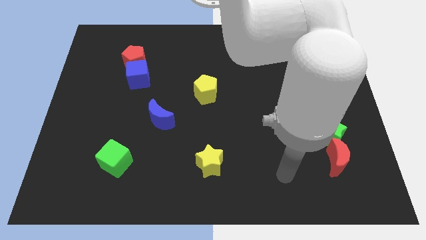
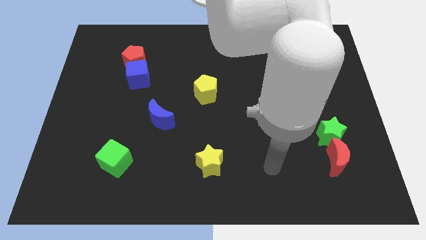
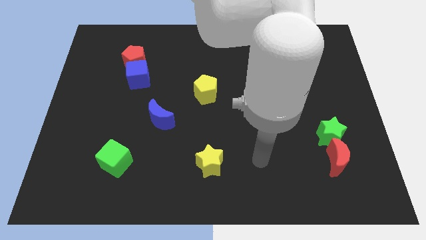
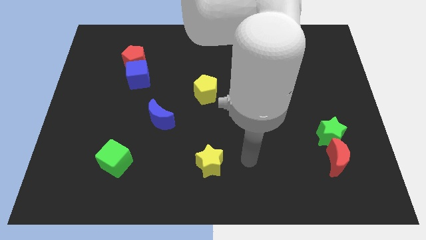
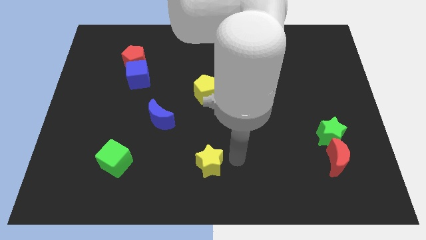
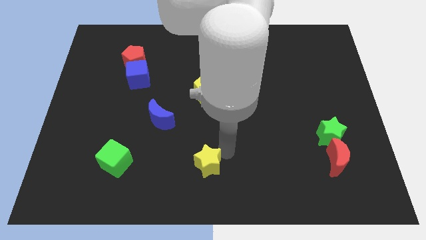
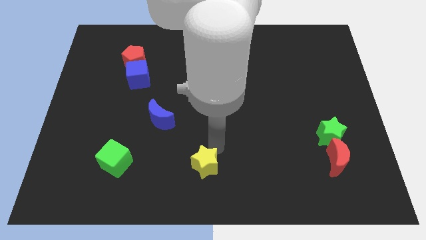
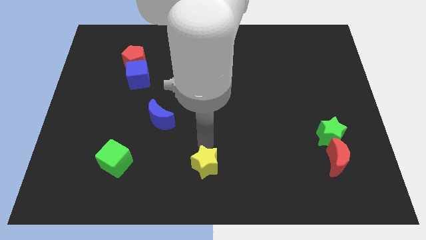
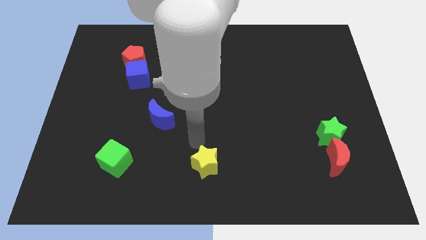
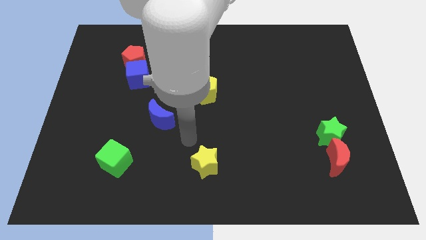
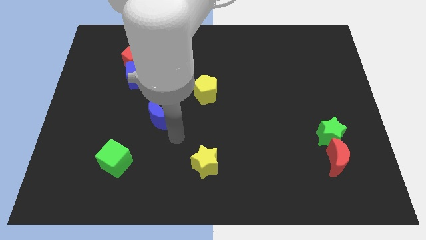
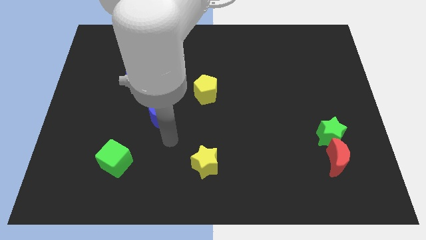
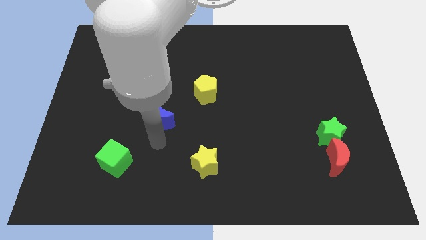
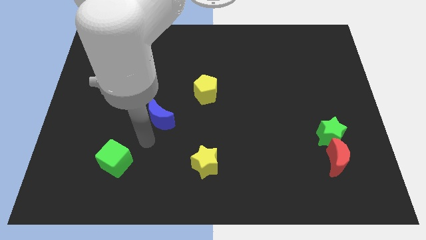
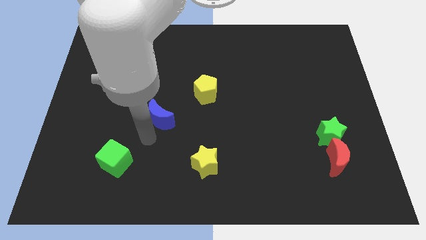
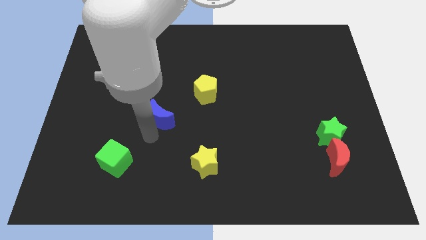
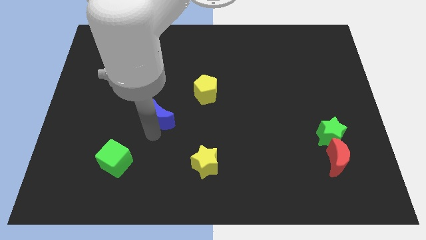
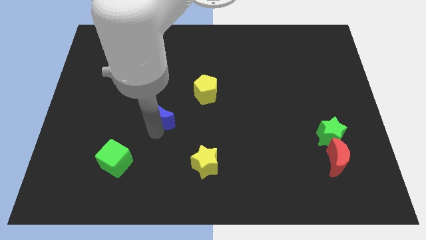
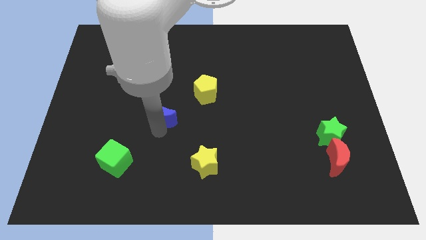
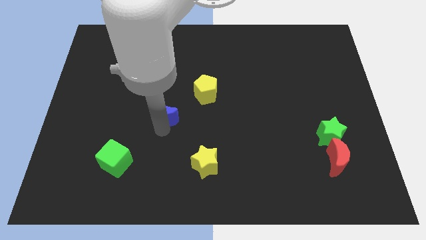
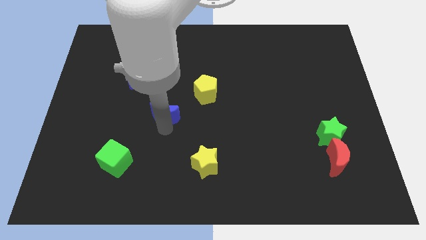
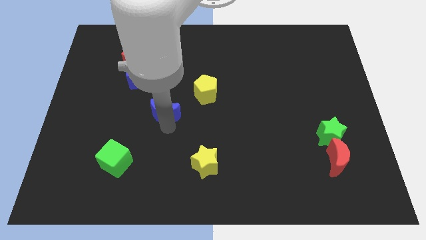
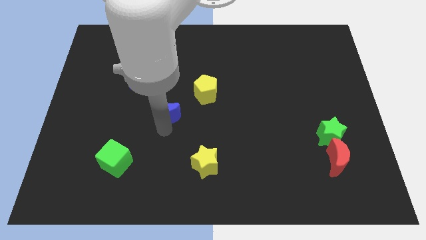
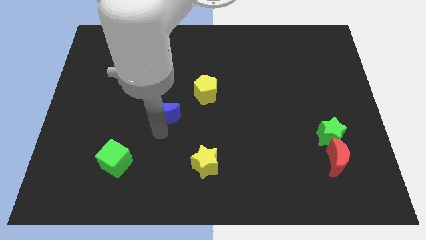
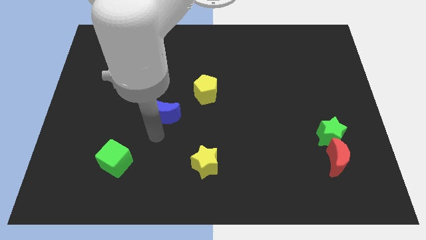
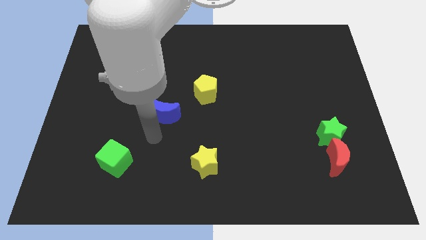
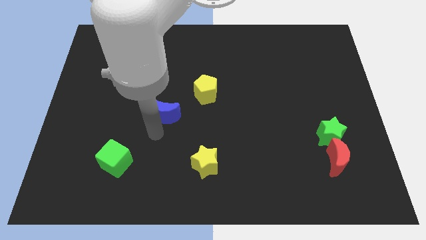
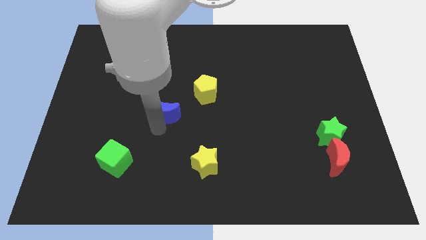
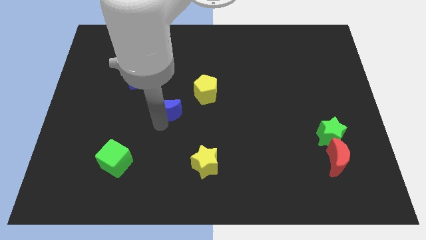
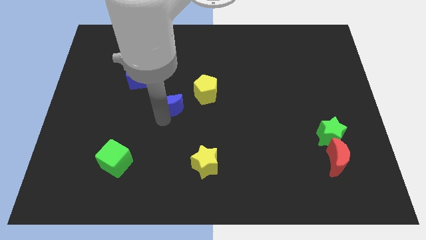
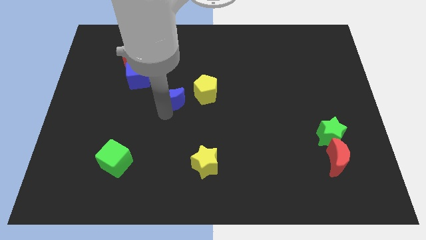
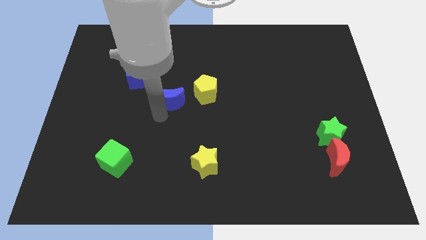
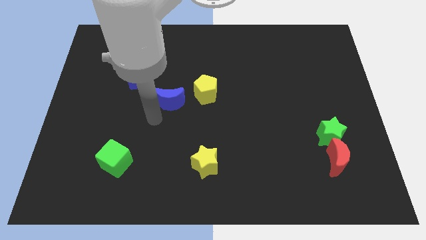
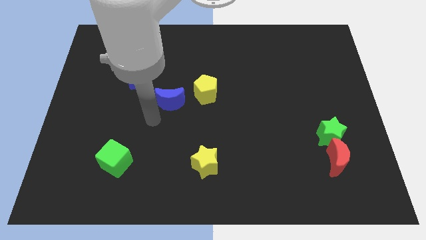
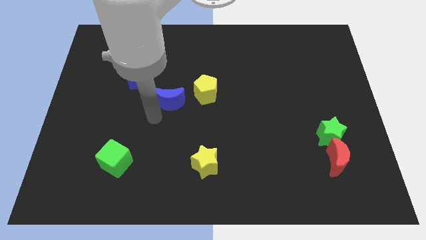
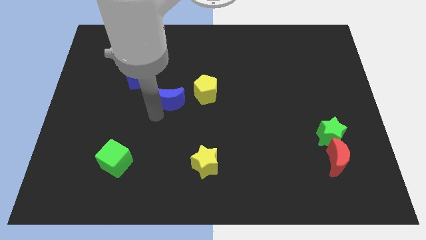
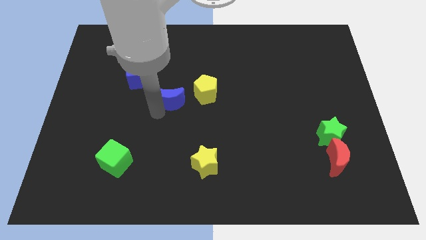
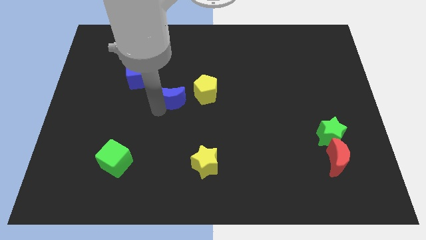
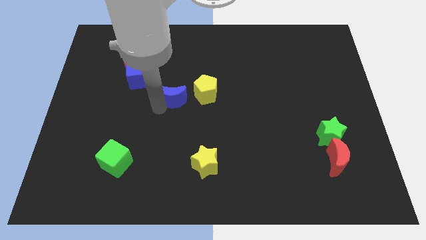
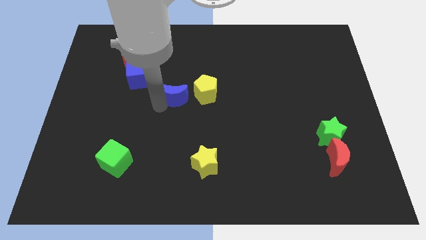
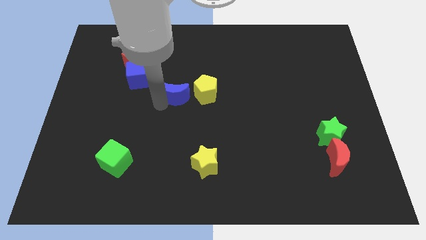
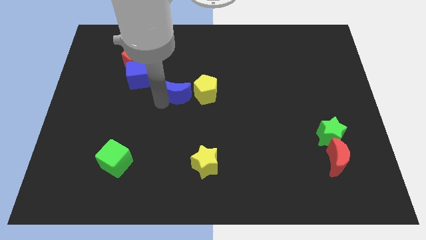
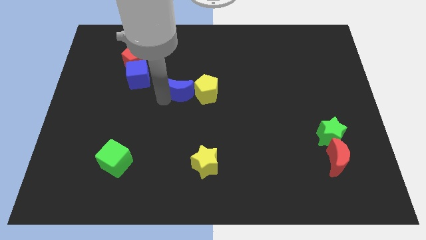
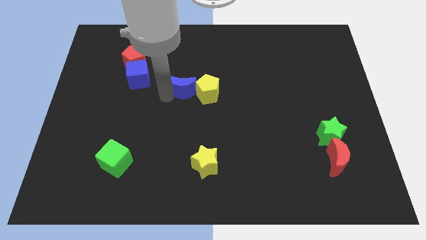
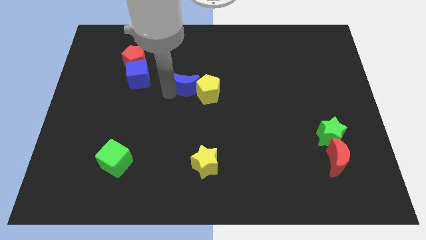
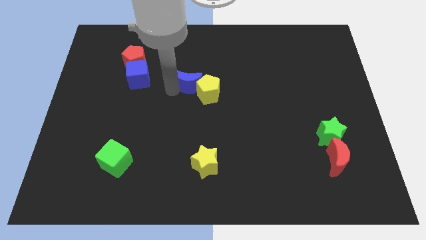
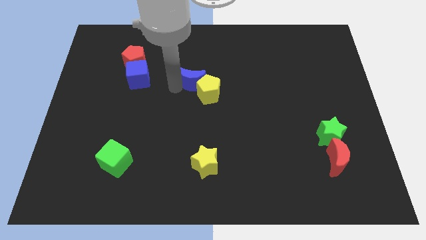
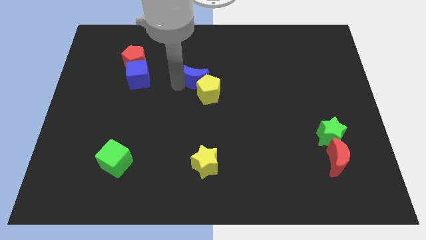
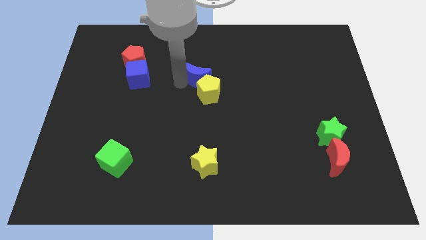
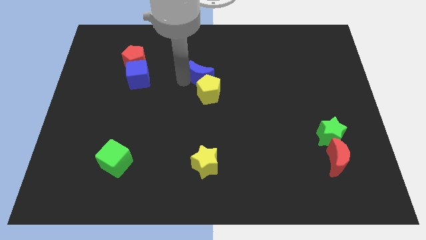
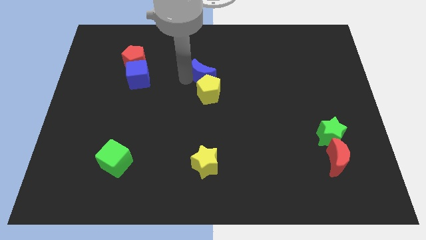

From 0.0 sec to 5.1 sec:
slide the blue moon to the top right of the yellow pentagon

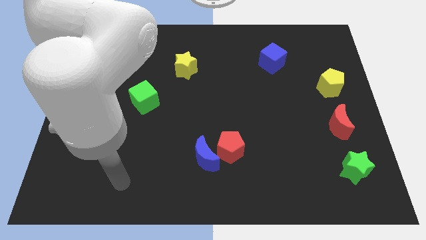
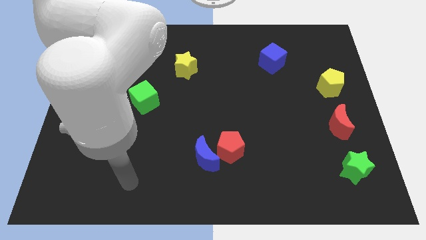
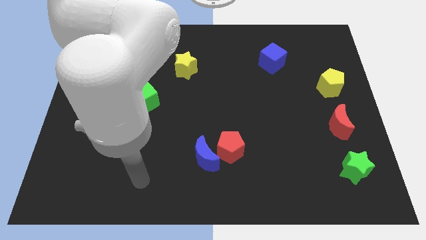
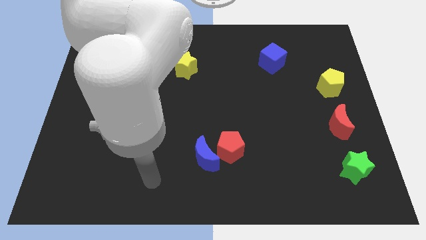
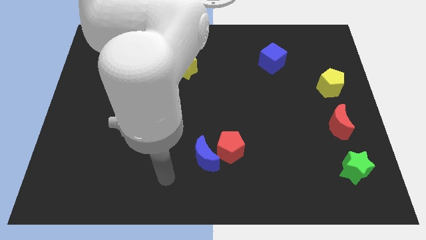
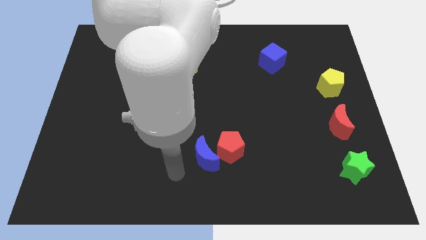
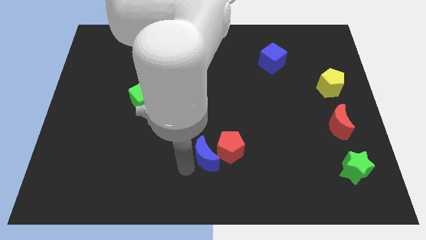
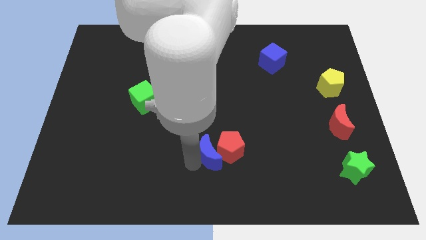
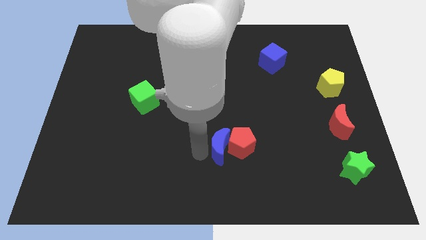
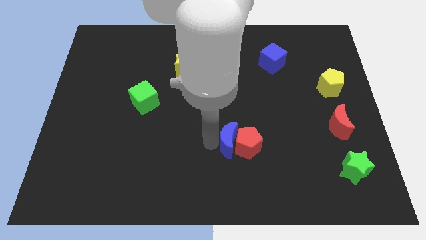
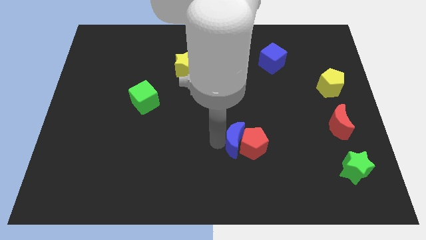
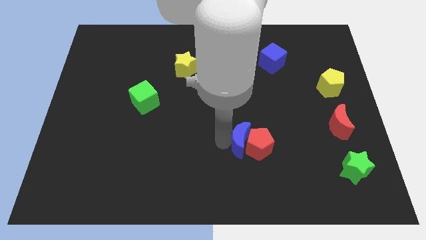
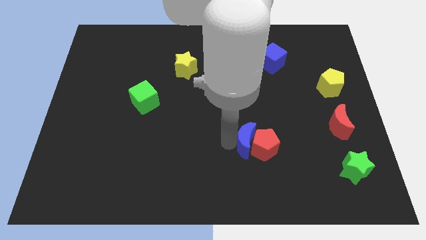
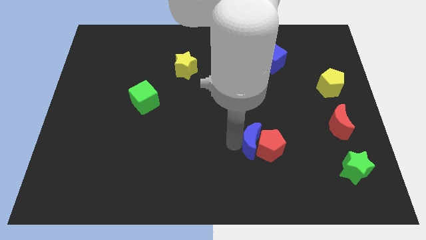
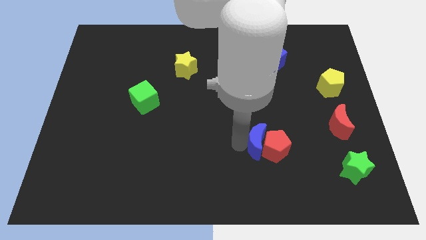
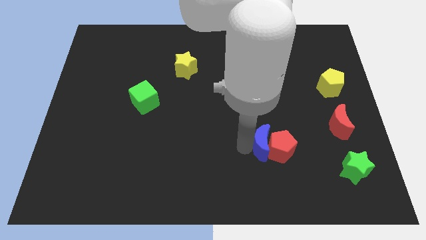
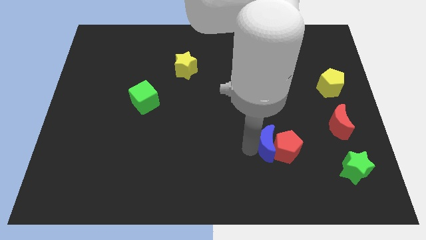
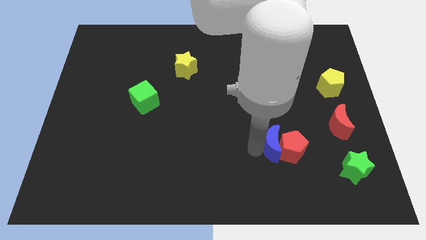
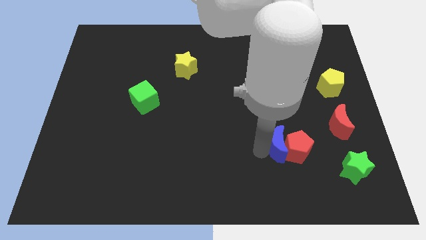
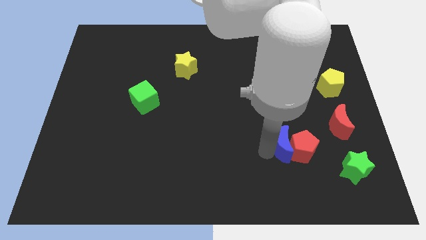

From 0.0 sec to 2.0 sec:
push the red pentagon diagonally up and to the left of the green star
